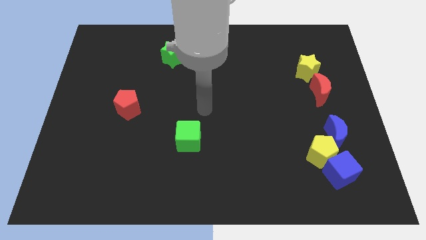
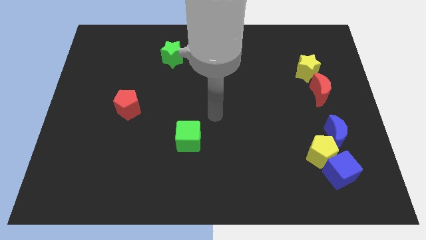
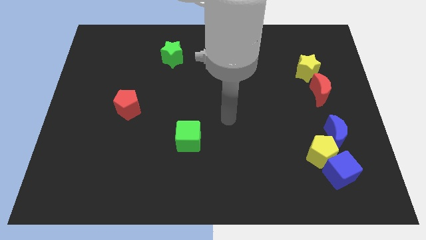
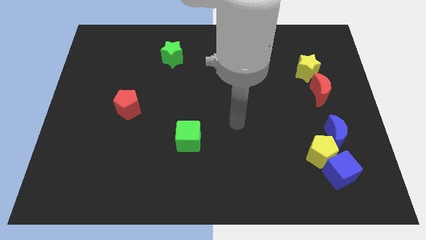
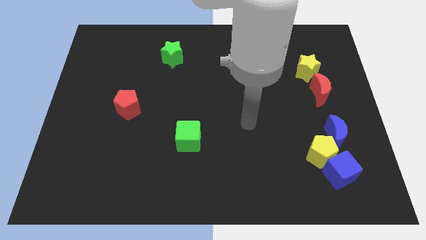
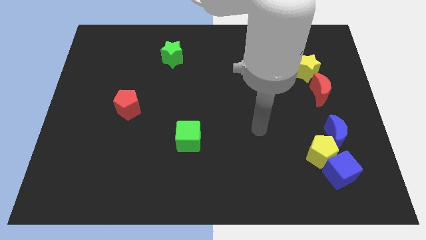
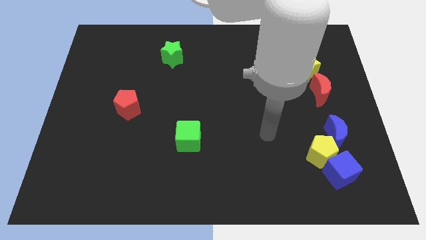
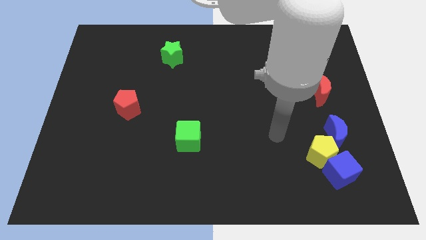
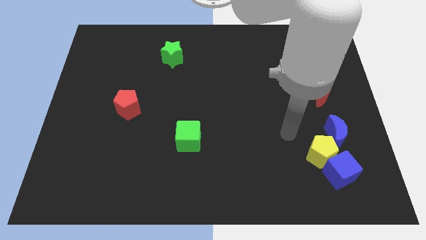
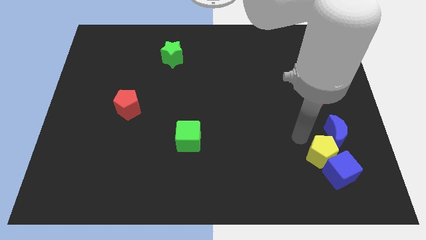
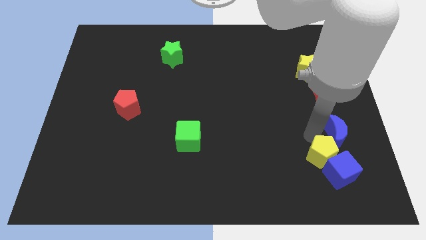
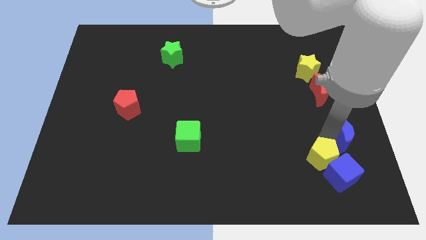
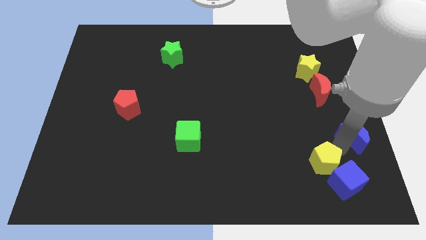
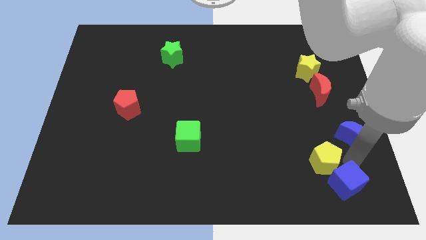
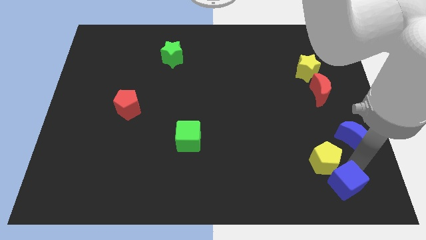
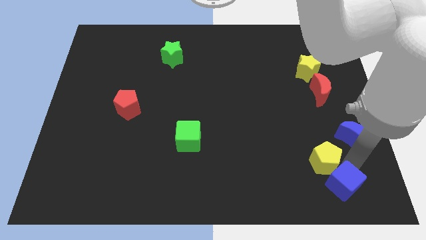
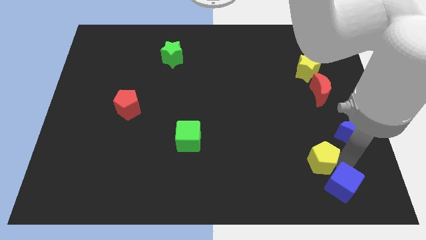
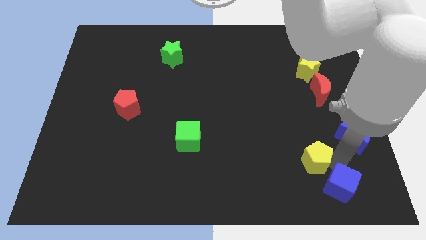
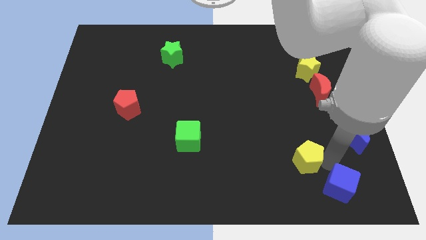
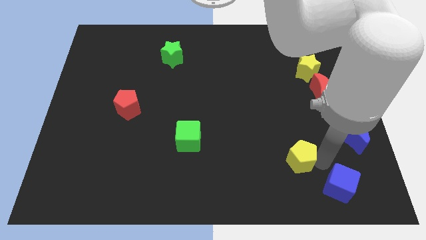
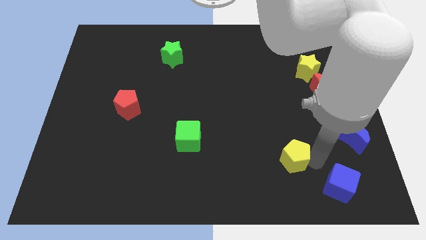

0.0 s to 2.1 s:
pull the yellow pentagon apart from the blue cube and blue moon

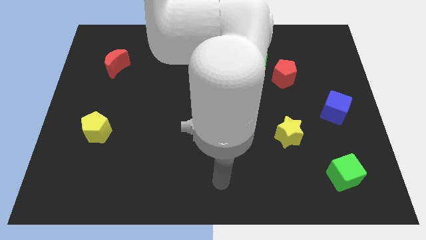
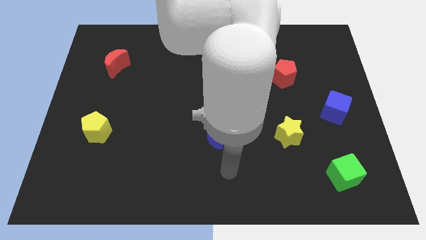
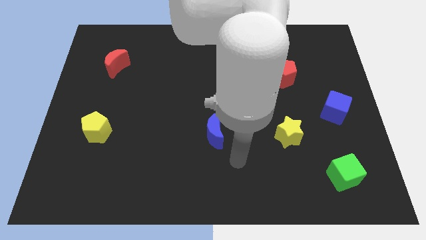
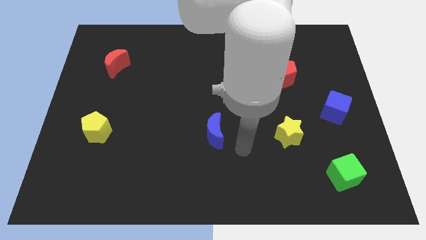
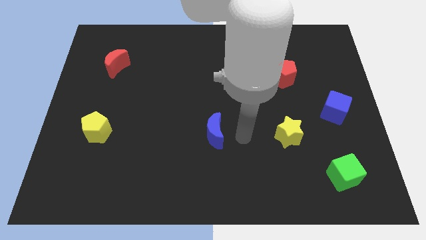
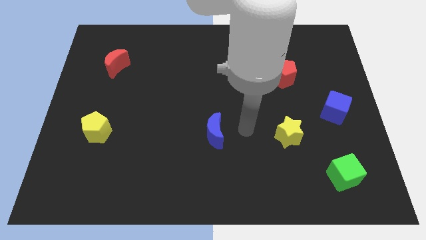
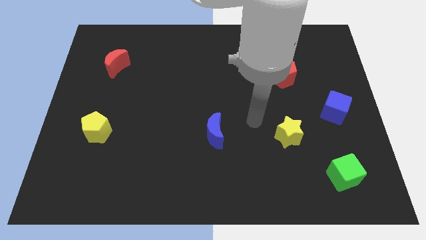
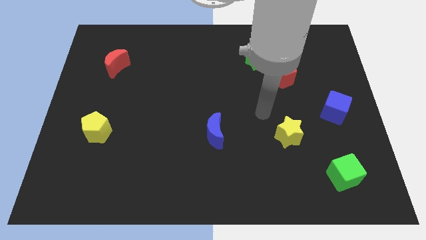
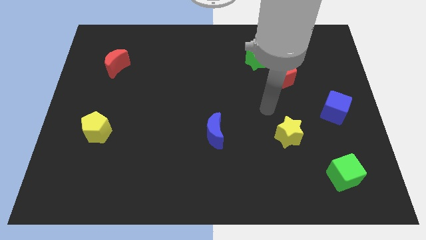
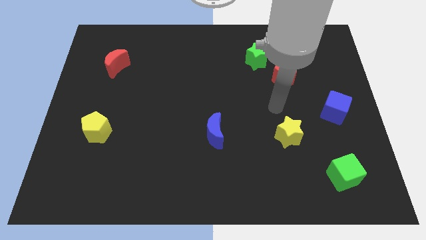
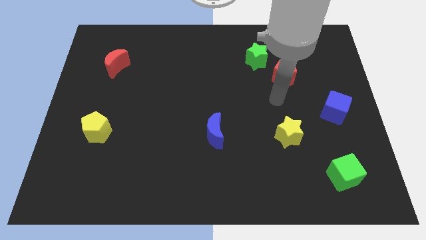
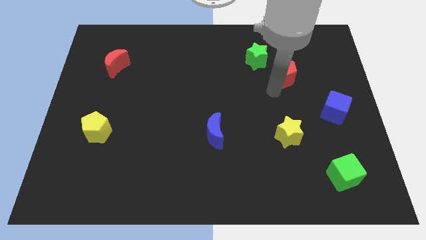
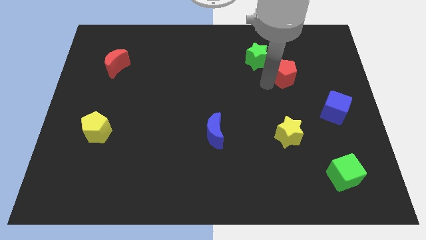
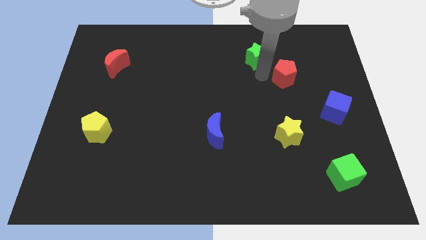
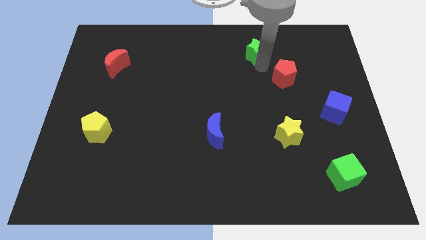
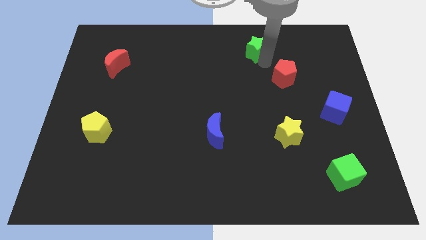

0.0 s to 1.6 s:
pull the red pentagon apart from the green star

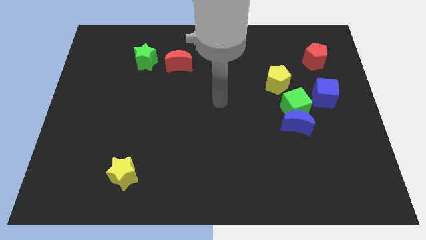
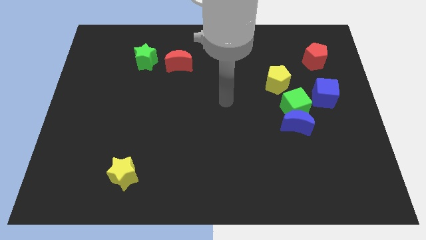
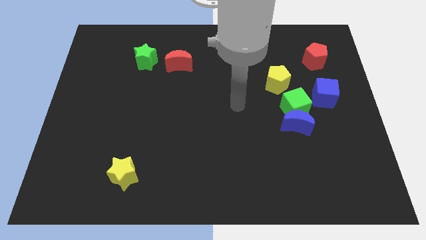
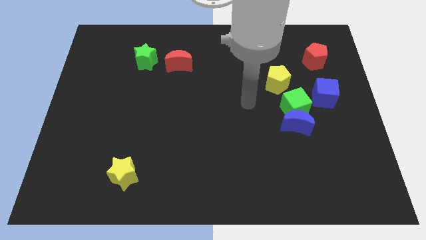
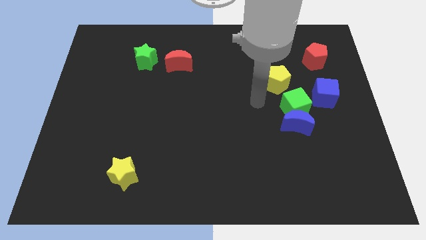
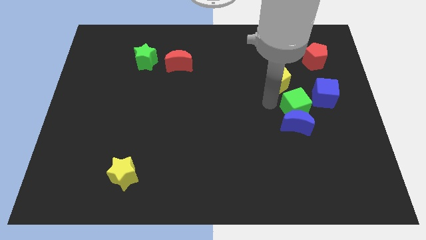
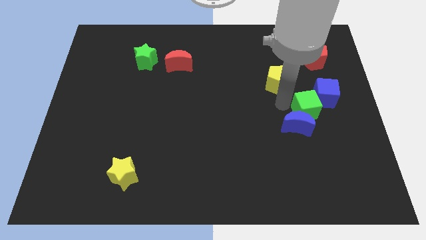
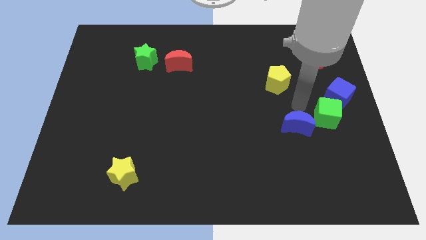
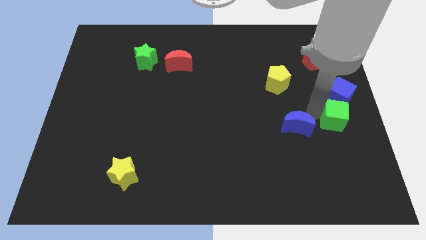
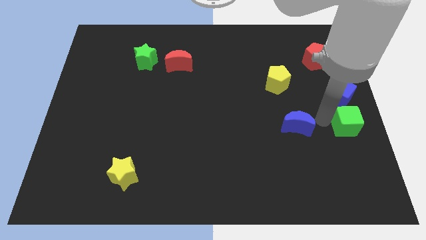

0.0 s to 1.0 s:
separate the blue moon from the green cube

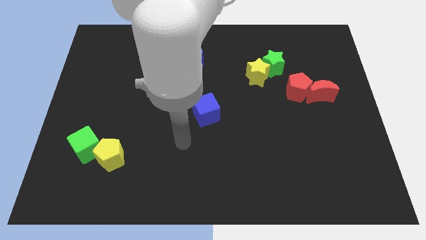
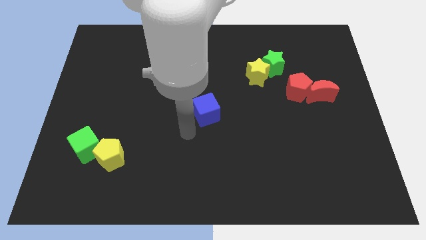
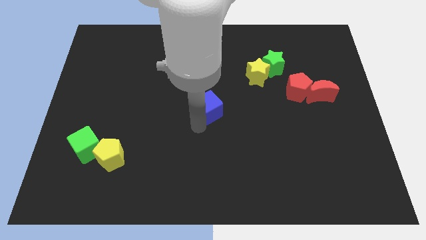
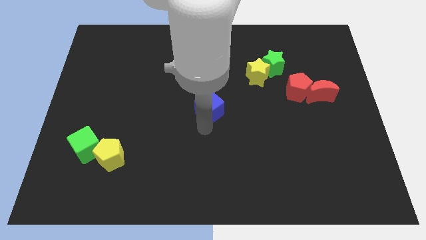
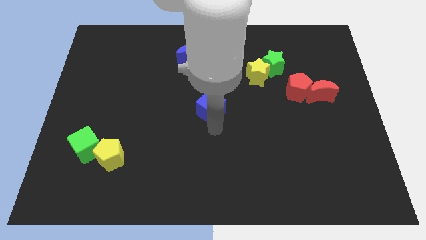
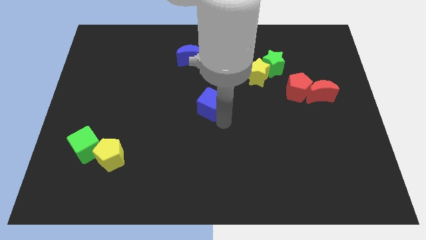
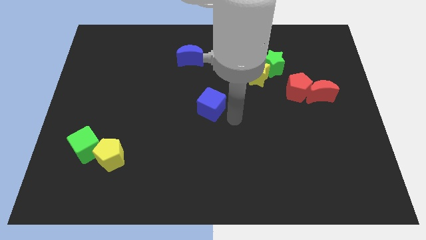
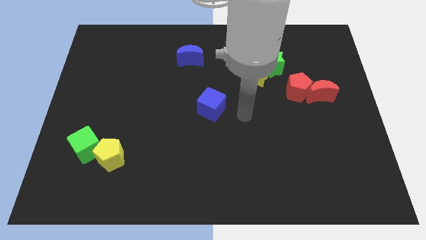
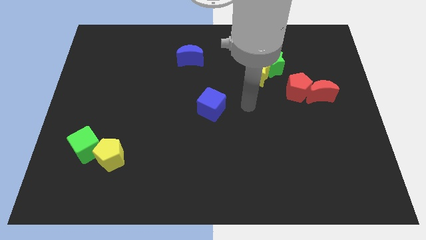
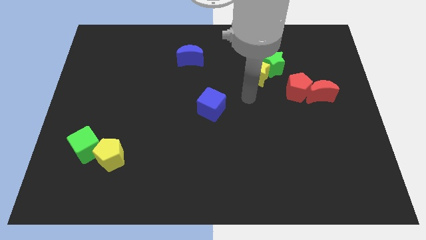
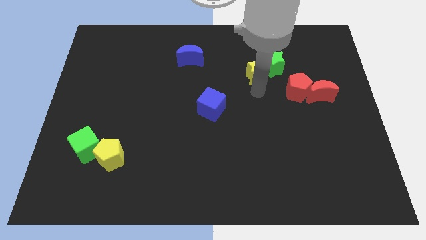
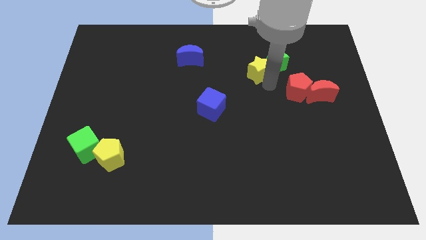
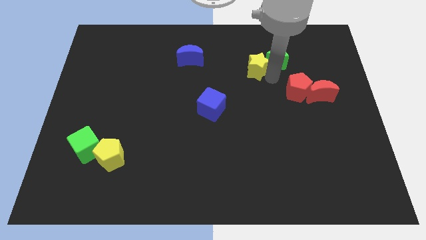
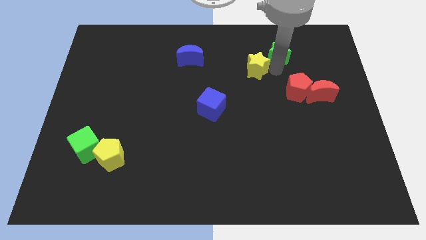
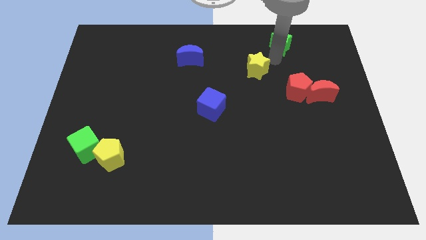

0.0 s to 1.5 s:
pull the yellow star apart from the green star

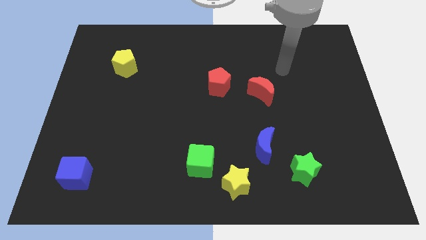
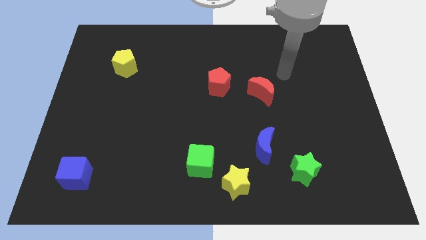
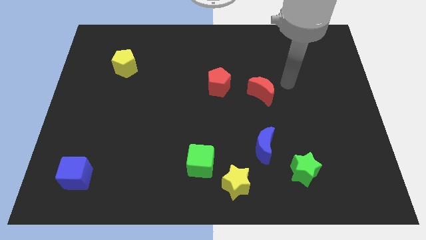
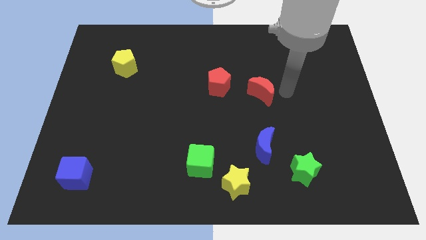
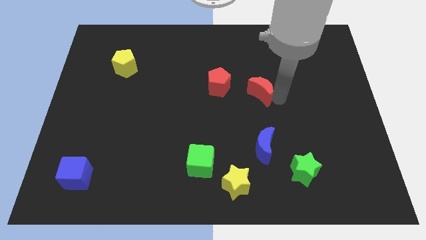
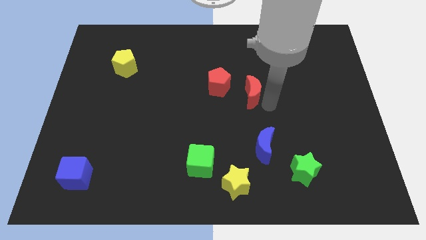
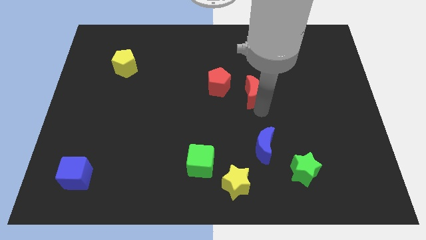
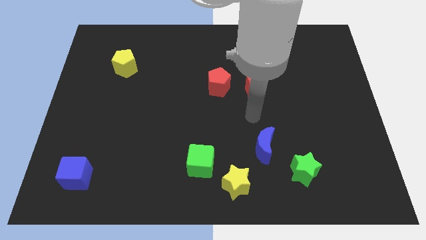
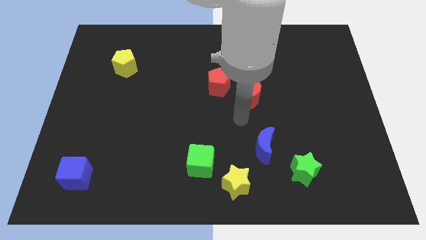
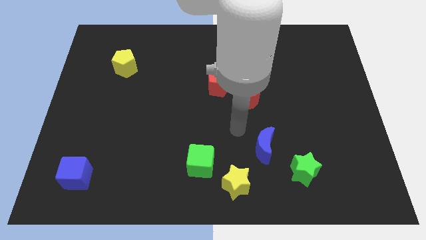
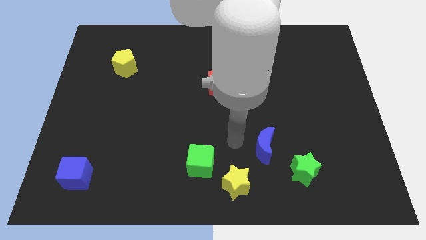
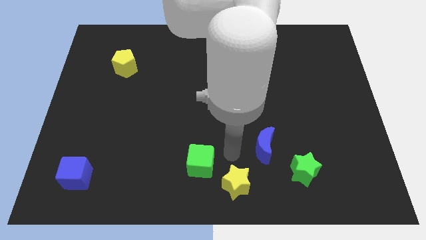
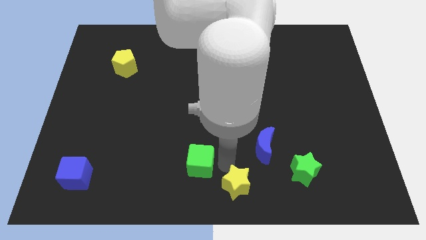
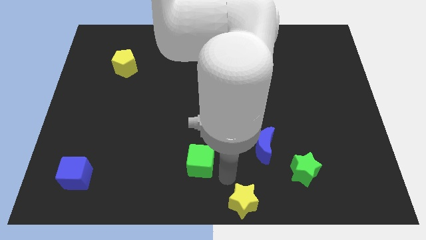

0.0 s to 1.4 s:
separate the green cube from the yellow star

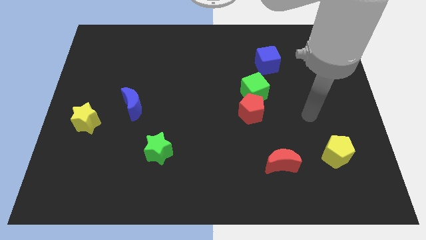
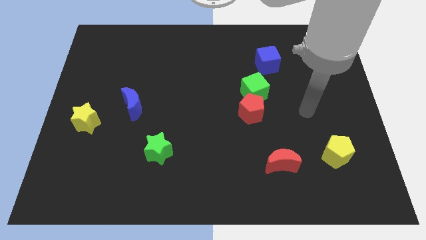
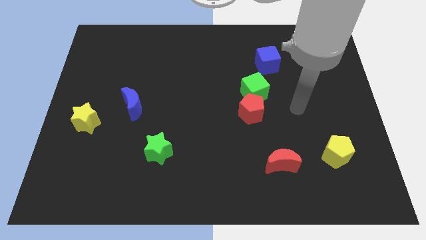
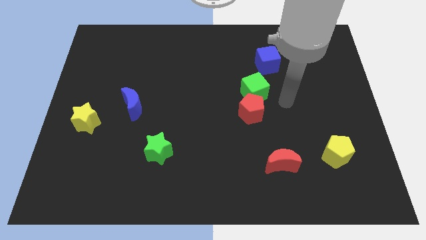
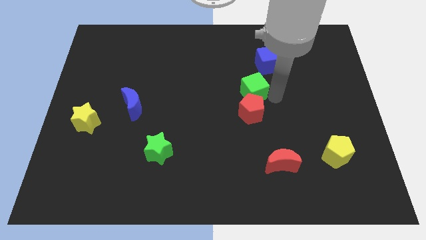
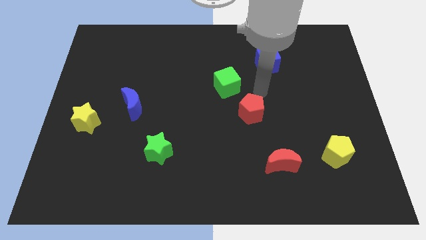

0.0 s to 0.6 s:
pull the red pentagon apart from the green cube

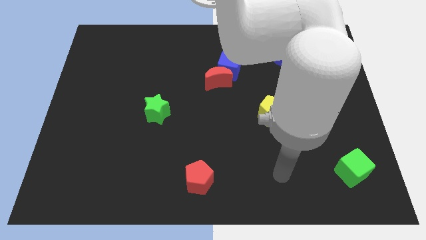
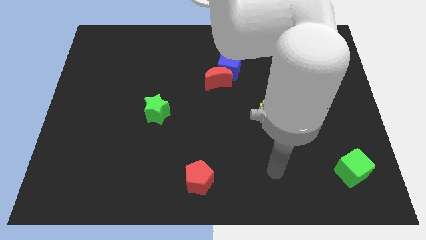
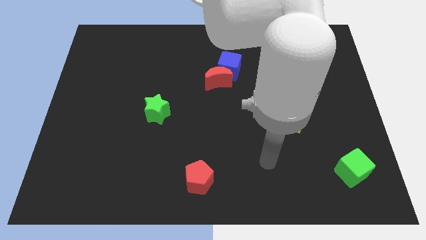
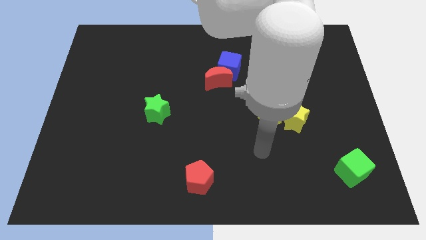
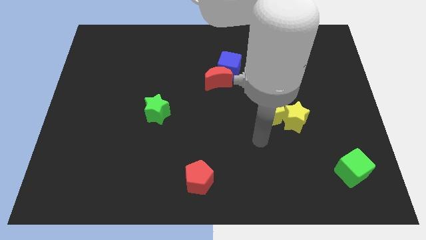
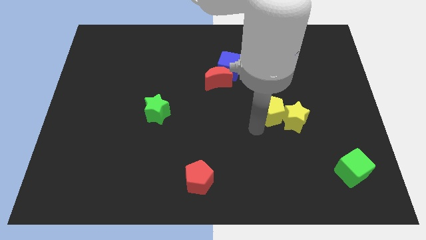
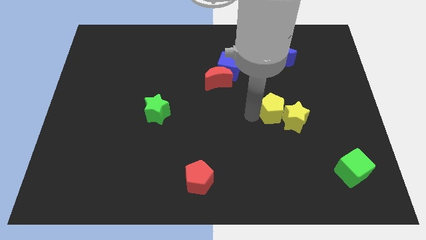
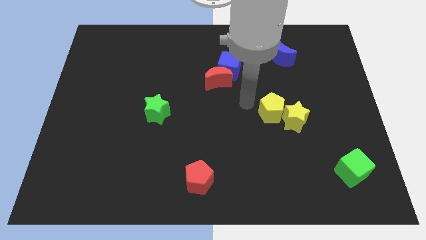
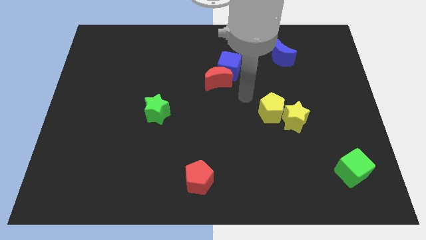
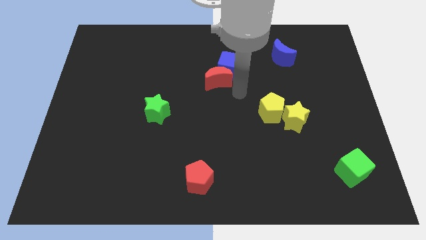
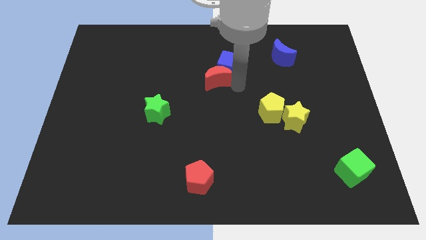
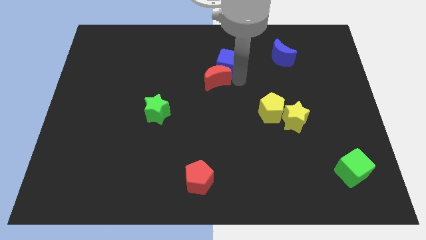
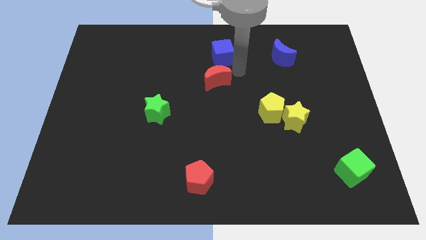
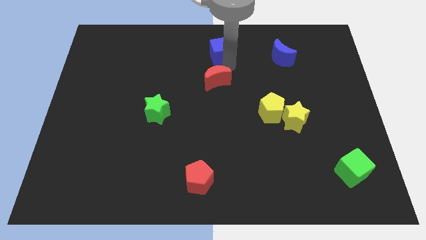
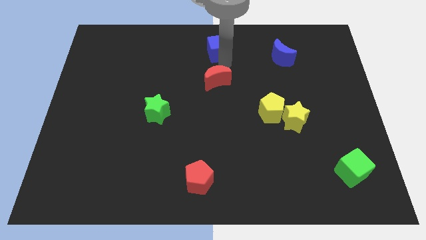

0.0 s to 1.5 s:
move the red moon away from the blue cube
